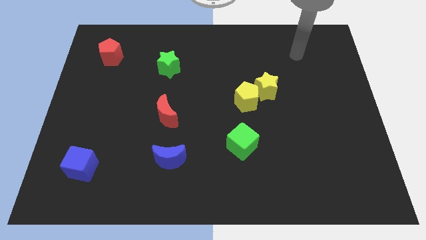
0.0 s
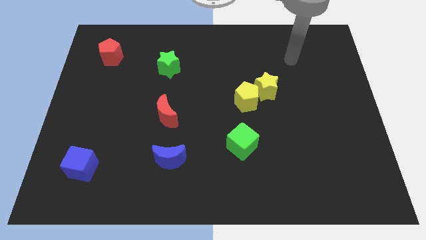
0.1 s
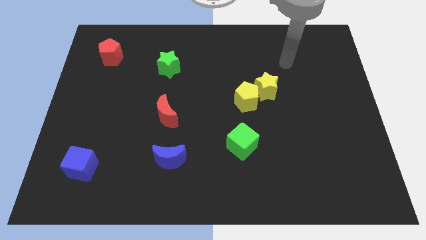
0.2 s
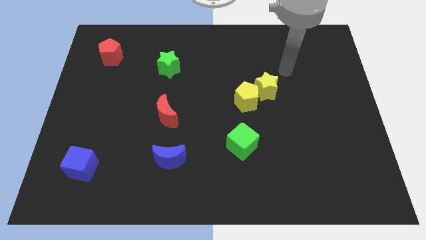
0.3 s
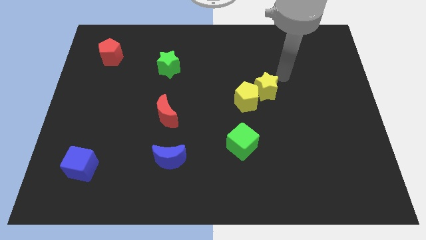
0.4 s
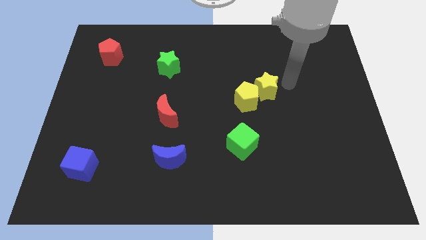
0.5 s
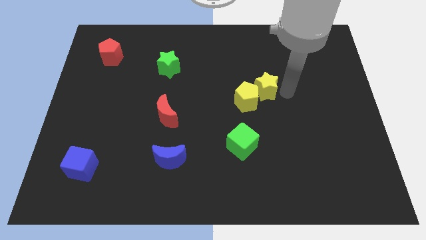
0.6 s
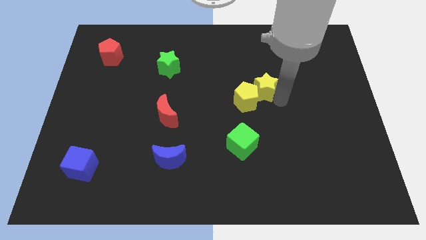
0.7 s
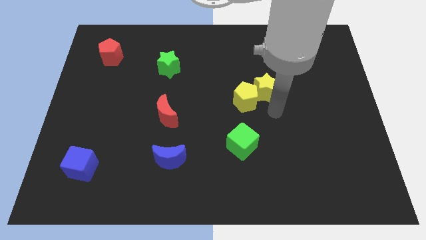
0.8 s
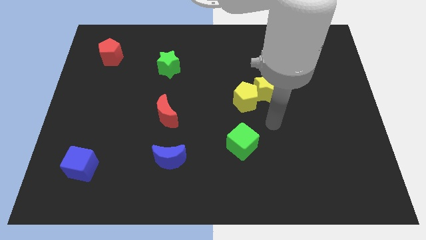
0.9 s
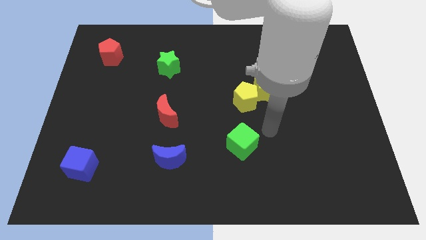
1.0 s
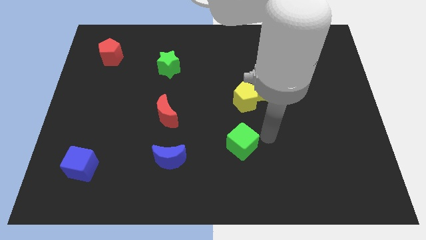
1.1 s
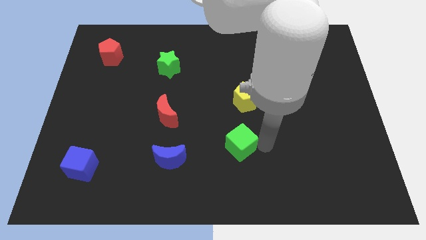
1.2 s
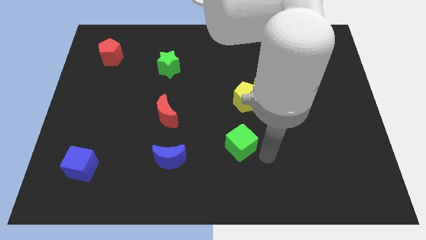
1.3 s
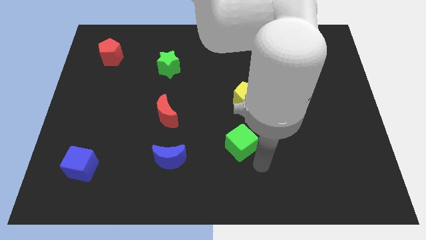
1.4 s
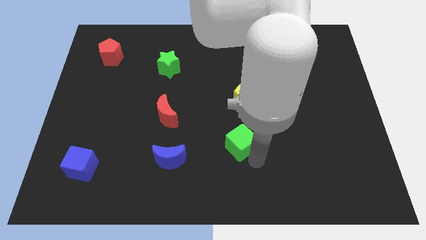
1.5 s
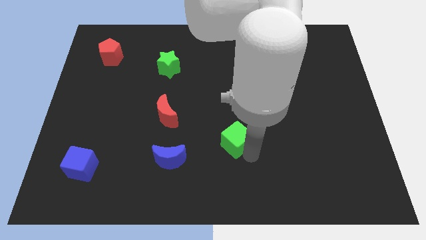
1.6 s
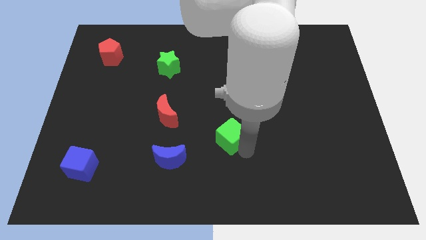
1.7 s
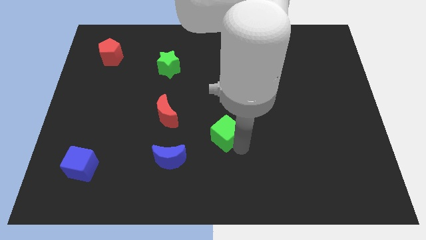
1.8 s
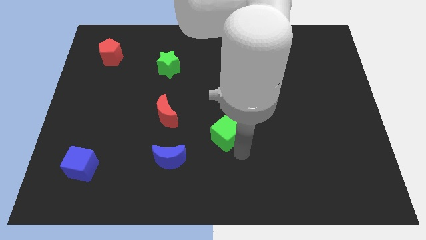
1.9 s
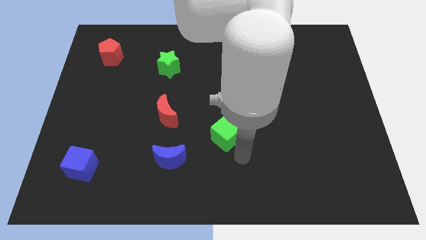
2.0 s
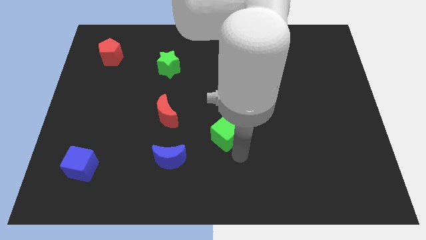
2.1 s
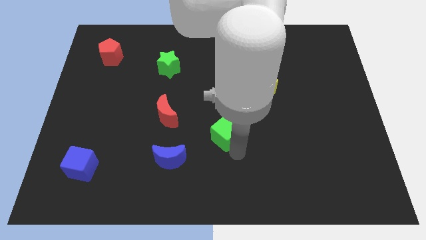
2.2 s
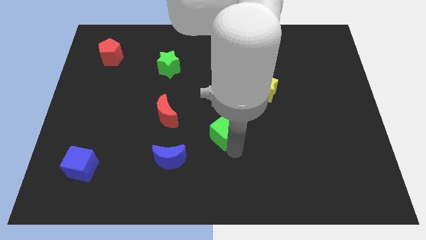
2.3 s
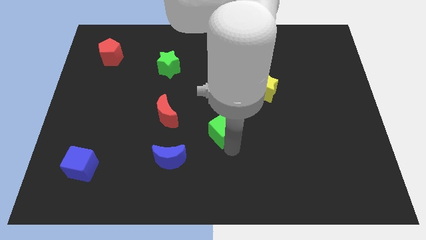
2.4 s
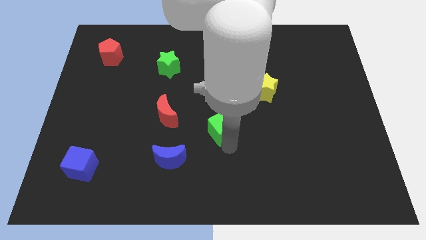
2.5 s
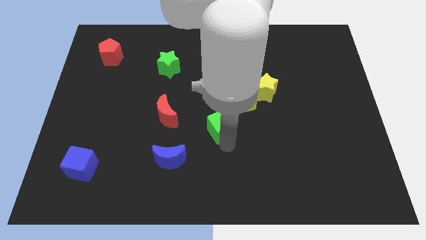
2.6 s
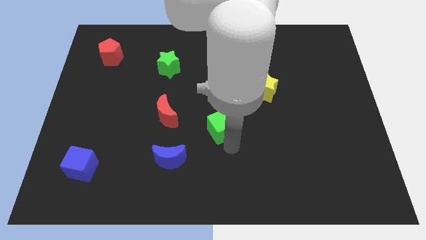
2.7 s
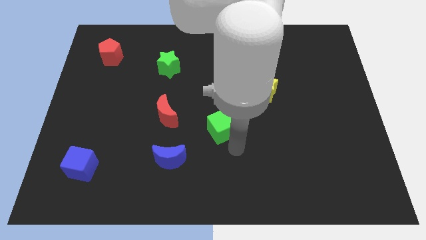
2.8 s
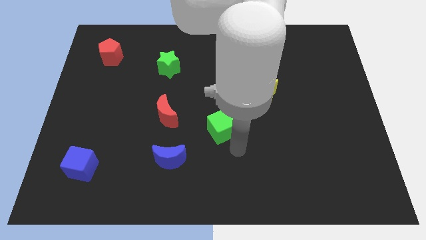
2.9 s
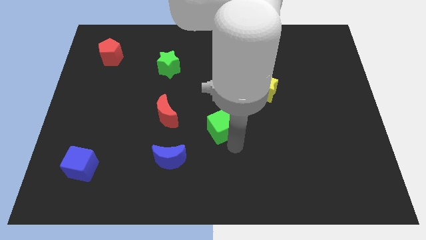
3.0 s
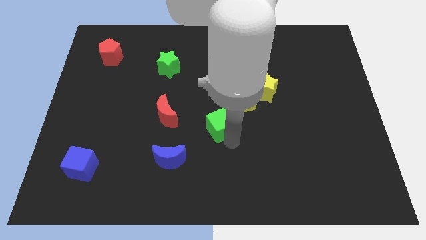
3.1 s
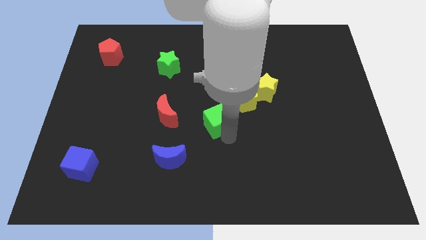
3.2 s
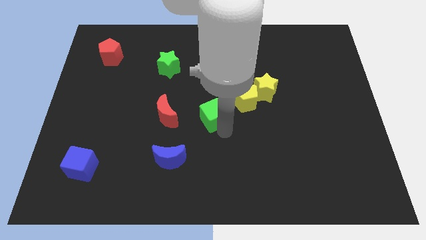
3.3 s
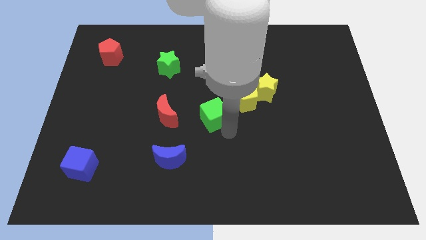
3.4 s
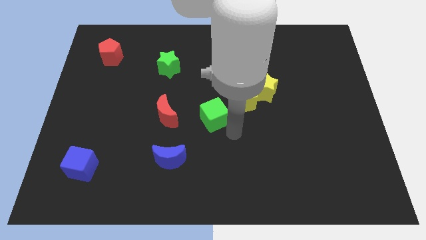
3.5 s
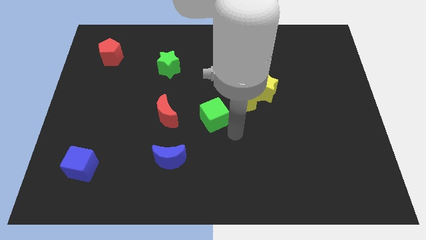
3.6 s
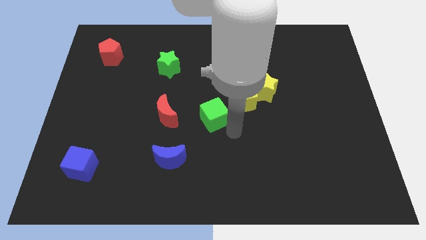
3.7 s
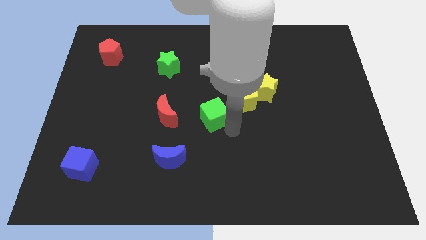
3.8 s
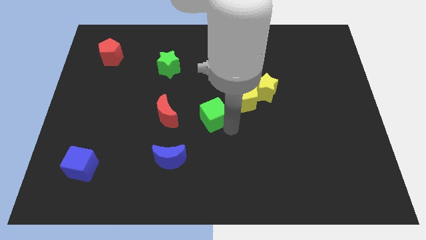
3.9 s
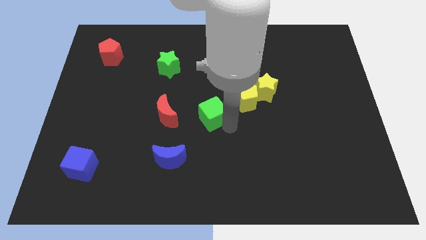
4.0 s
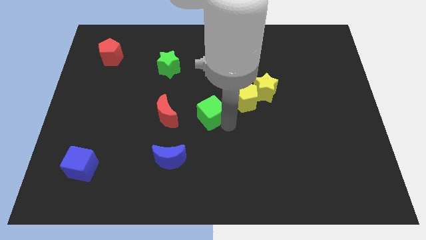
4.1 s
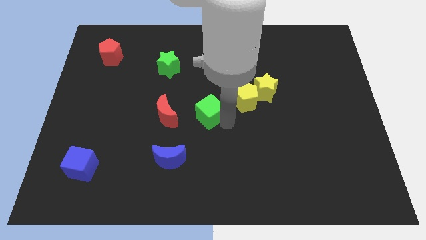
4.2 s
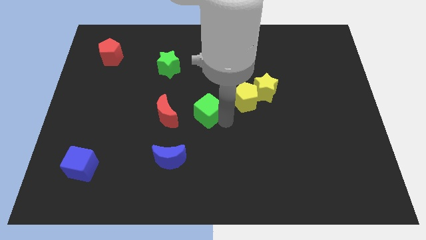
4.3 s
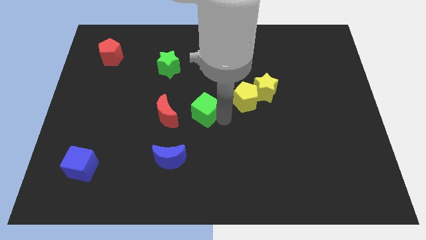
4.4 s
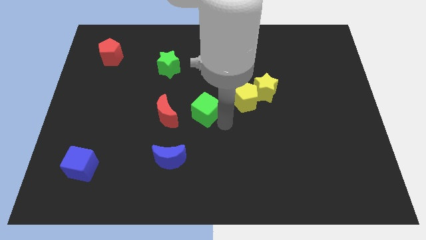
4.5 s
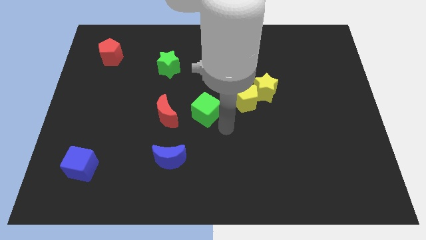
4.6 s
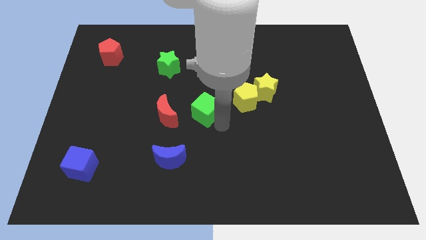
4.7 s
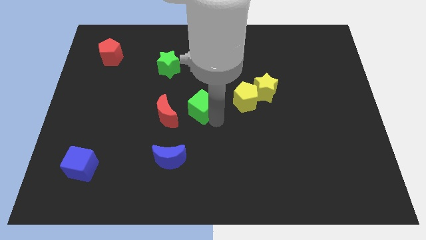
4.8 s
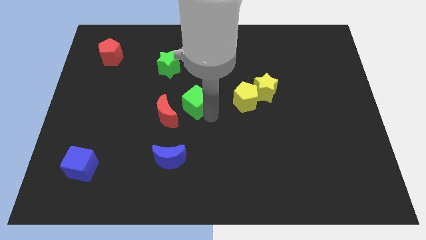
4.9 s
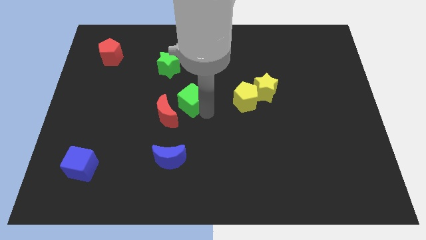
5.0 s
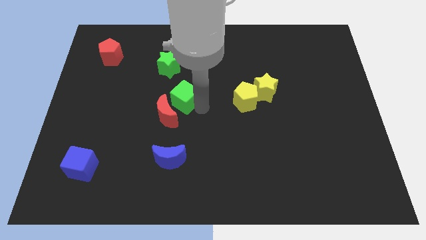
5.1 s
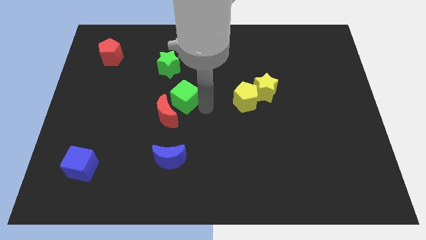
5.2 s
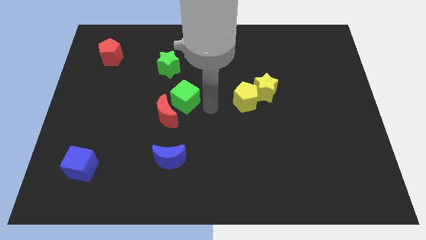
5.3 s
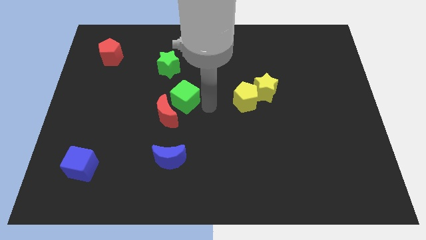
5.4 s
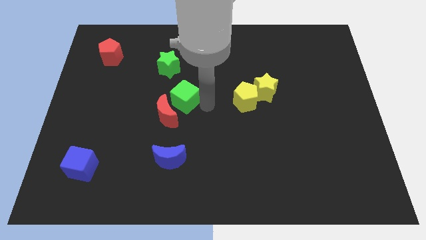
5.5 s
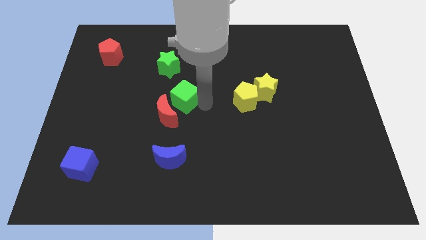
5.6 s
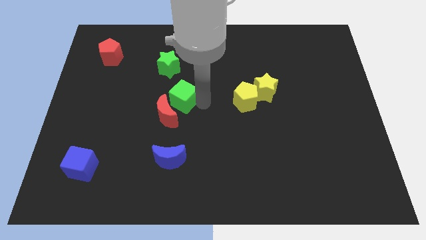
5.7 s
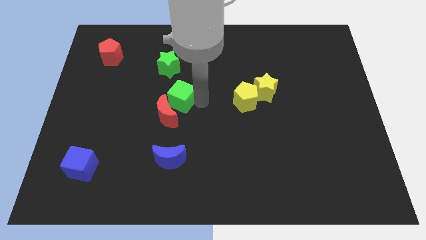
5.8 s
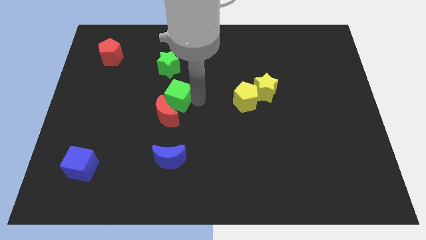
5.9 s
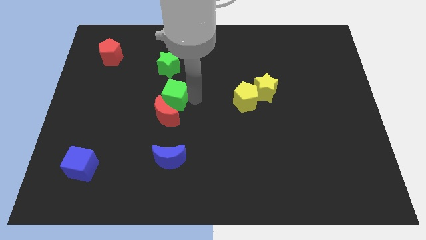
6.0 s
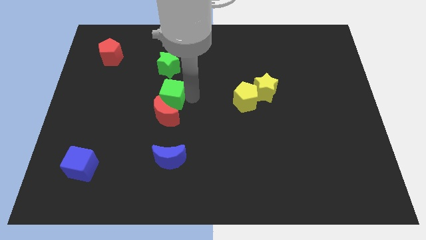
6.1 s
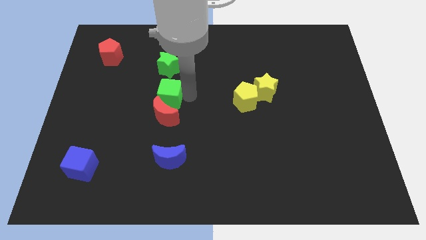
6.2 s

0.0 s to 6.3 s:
put the green cube to the top left side of the red moon

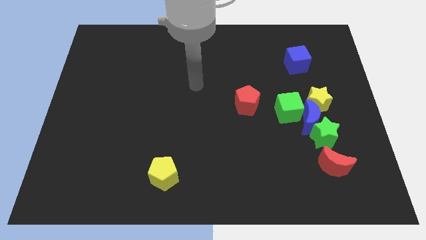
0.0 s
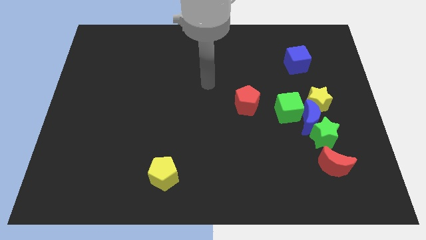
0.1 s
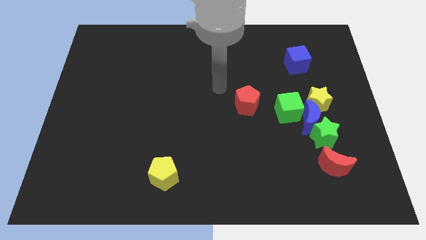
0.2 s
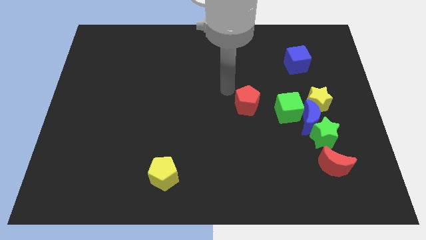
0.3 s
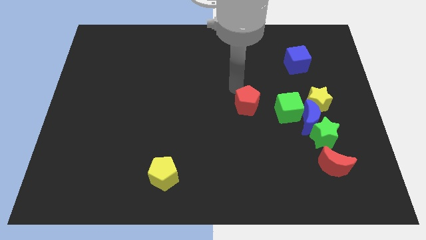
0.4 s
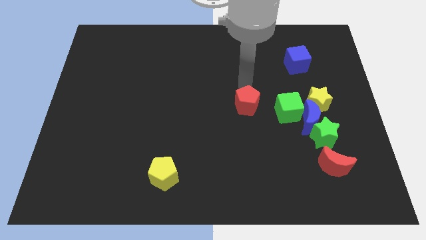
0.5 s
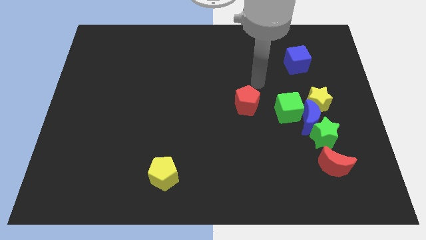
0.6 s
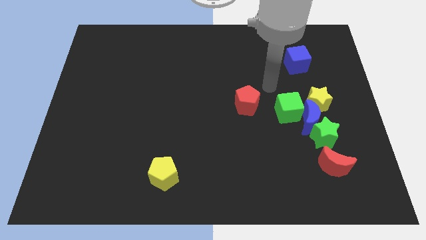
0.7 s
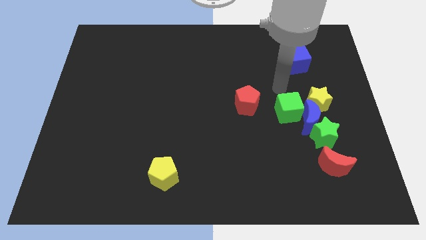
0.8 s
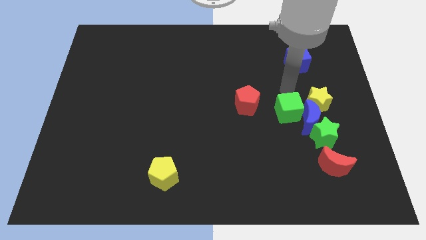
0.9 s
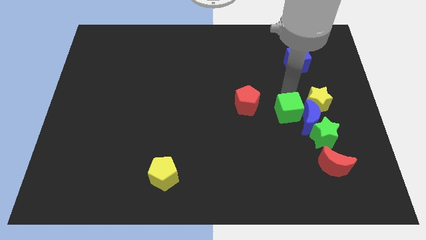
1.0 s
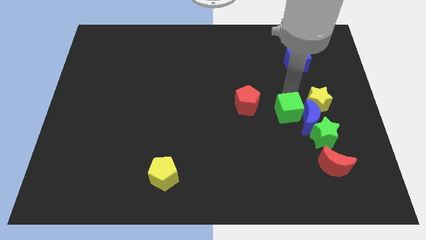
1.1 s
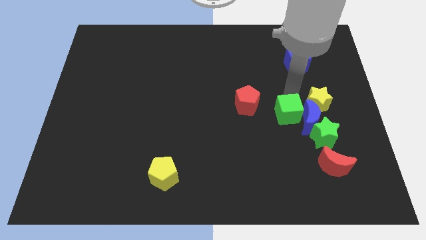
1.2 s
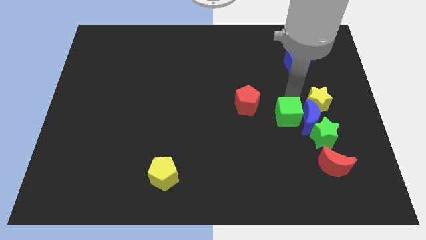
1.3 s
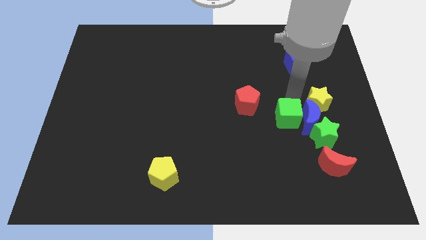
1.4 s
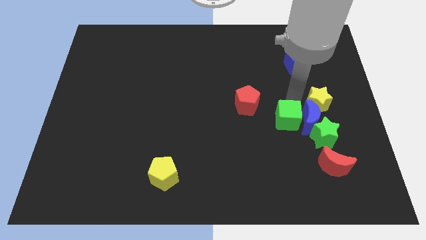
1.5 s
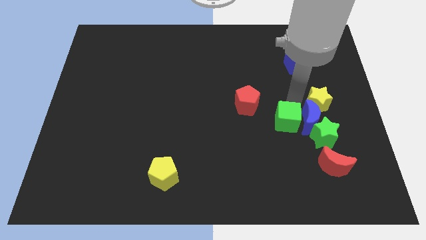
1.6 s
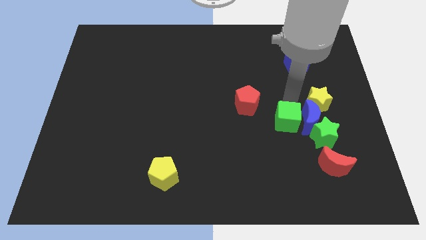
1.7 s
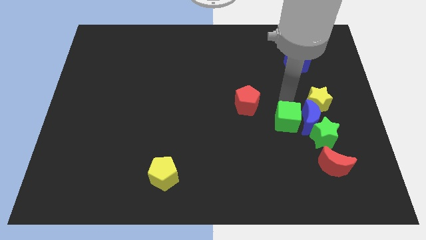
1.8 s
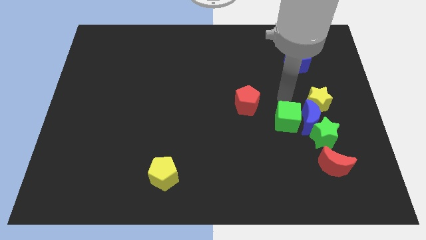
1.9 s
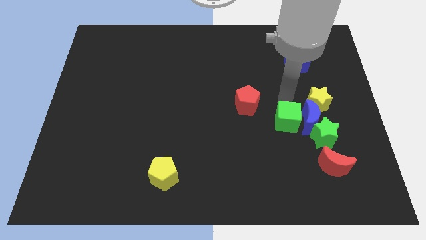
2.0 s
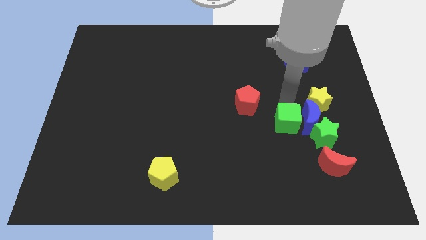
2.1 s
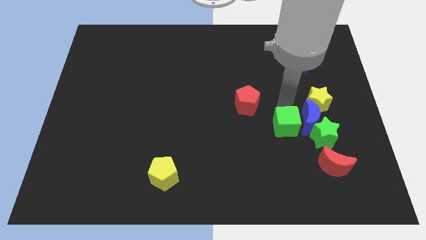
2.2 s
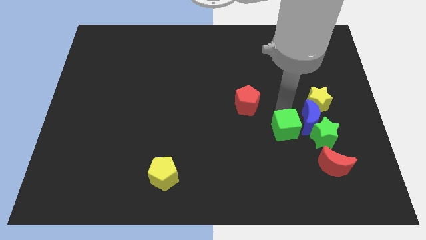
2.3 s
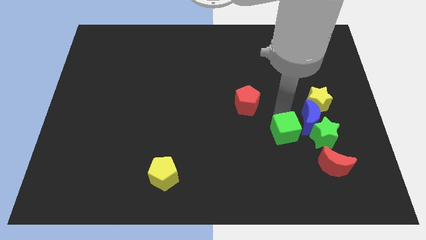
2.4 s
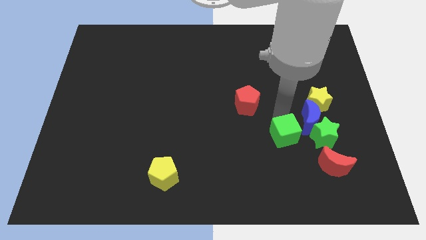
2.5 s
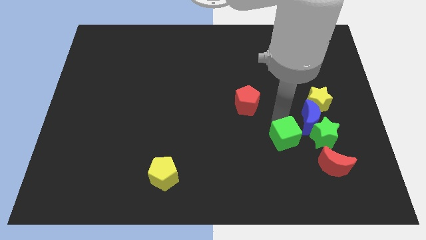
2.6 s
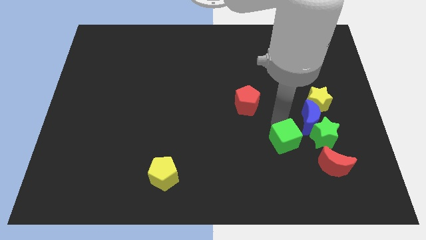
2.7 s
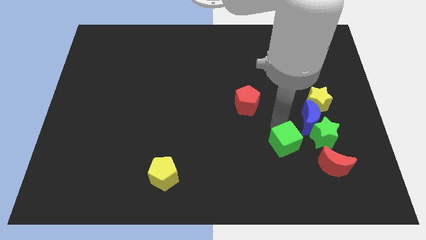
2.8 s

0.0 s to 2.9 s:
push the green cube to the bottom left side of the green star
